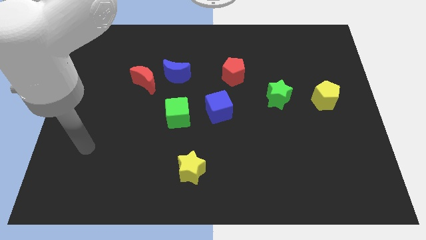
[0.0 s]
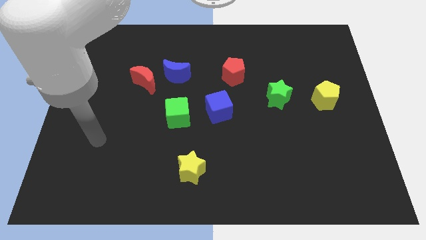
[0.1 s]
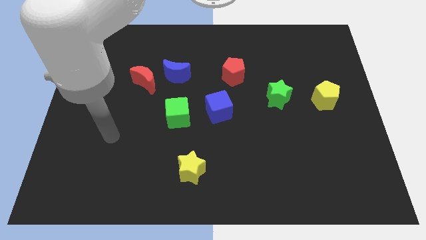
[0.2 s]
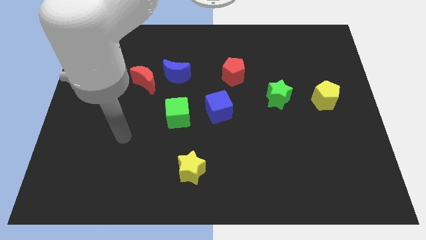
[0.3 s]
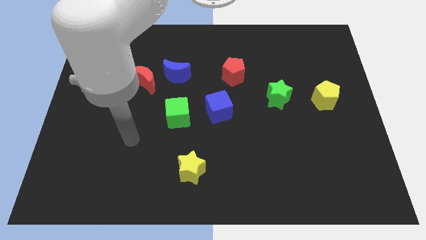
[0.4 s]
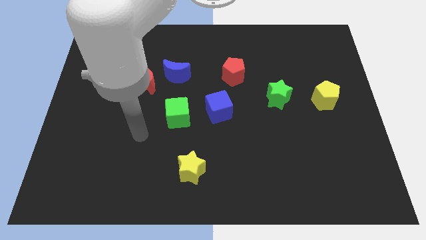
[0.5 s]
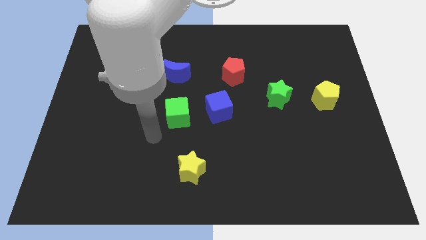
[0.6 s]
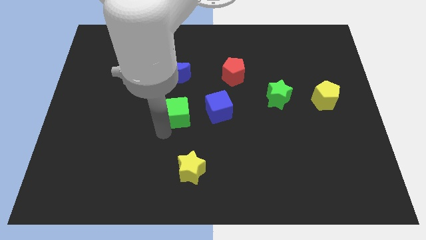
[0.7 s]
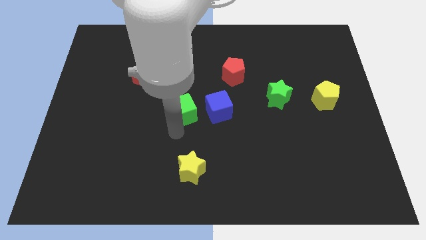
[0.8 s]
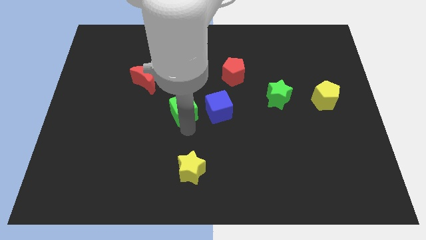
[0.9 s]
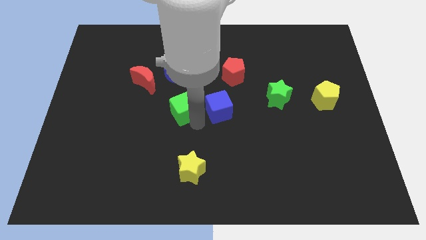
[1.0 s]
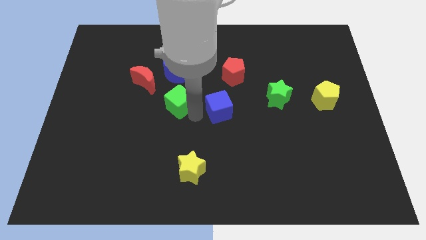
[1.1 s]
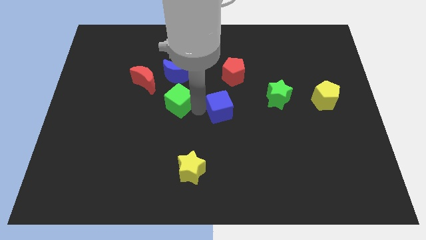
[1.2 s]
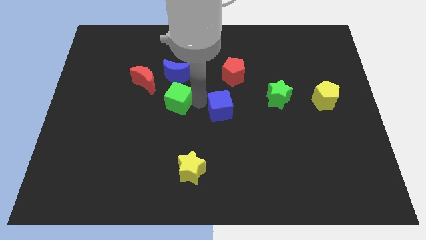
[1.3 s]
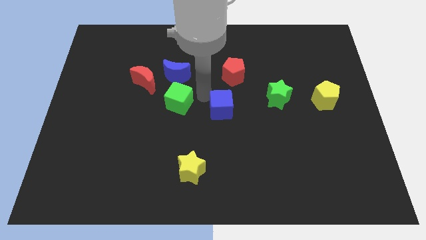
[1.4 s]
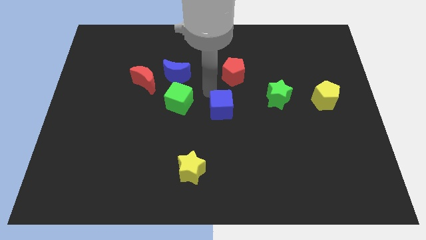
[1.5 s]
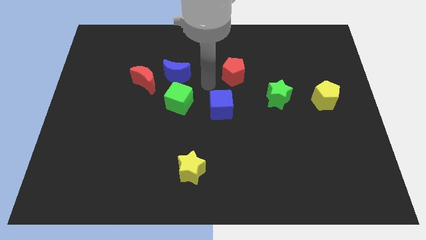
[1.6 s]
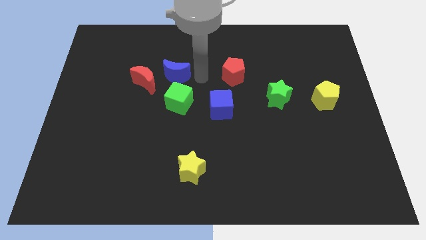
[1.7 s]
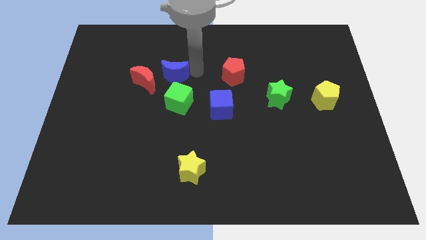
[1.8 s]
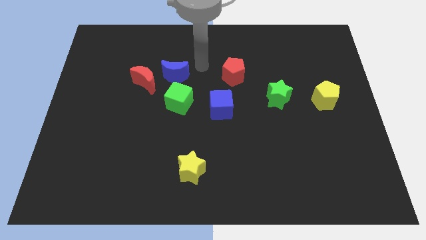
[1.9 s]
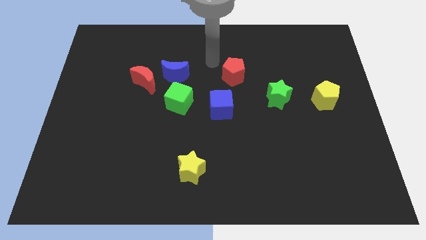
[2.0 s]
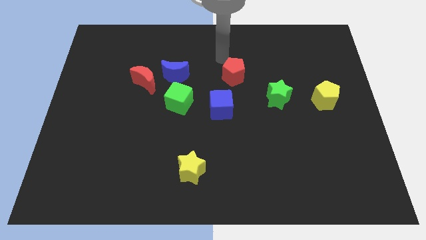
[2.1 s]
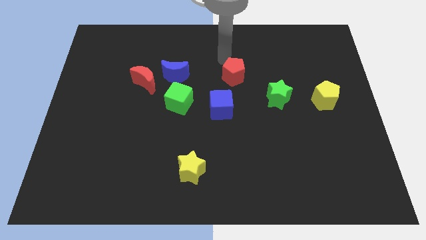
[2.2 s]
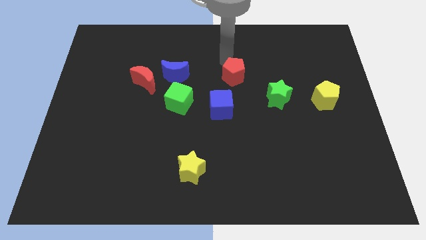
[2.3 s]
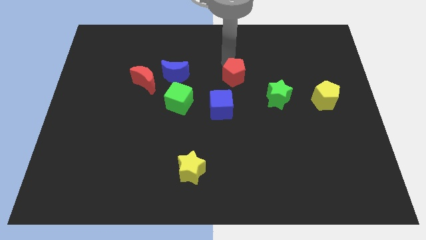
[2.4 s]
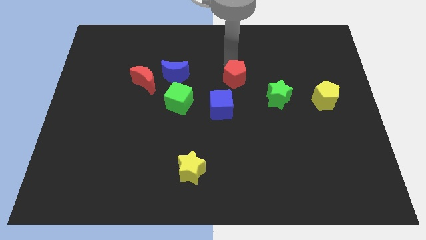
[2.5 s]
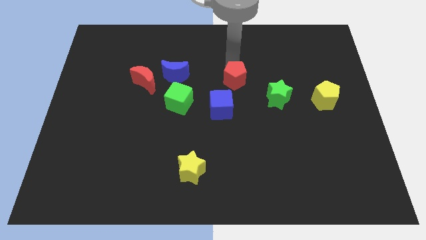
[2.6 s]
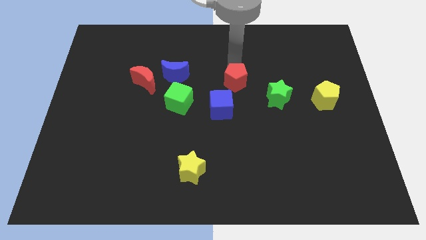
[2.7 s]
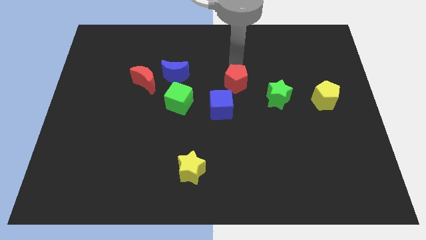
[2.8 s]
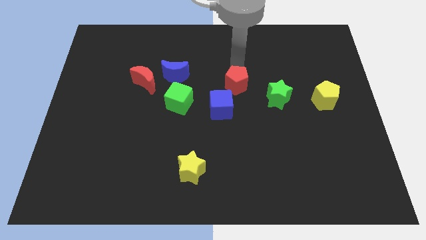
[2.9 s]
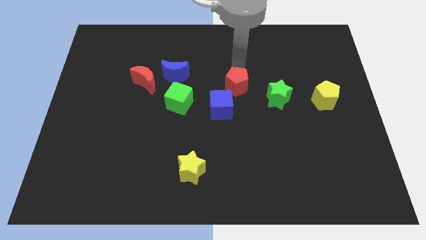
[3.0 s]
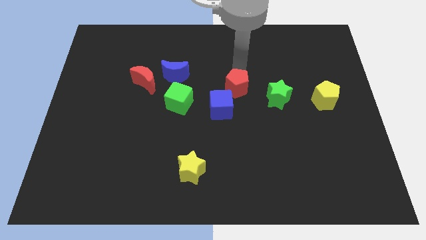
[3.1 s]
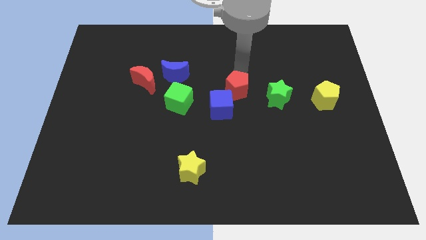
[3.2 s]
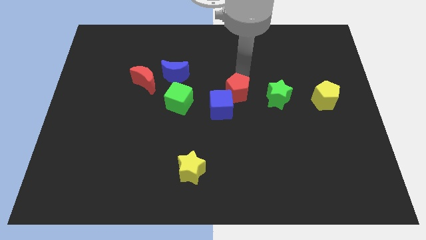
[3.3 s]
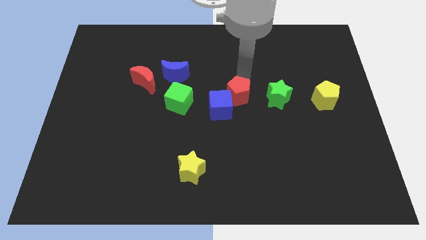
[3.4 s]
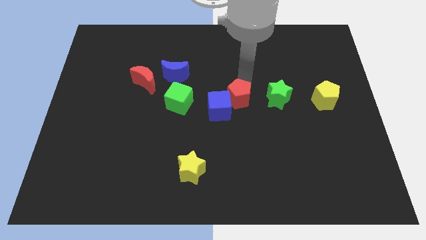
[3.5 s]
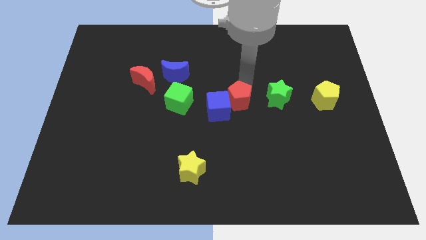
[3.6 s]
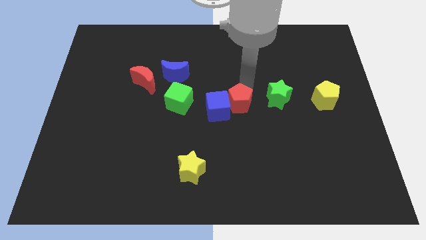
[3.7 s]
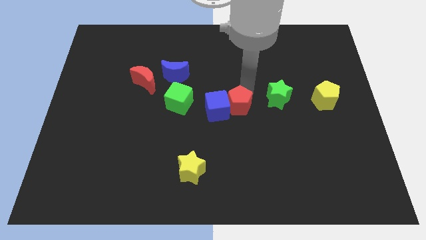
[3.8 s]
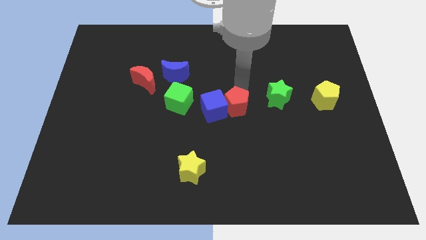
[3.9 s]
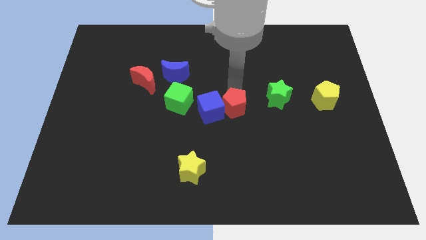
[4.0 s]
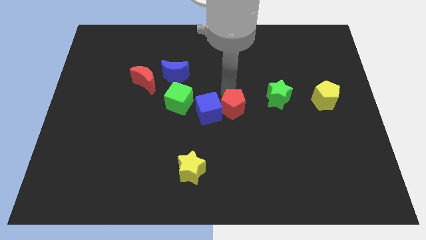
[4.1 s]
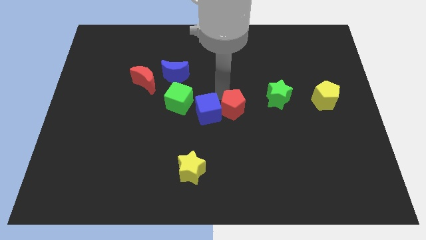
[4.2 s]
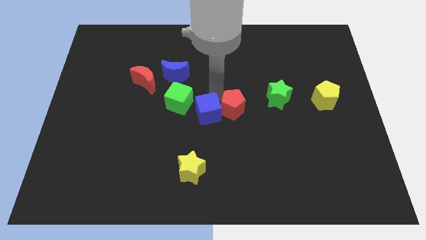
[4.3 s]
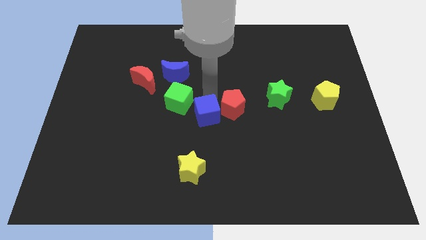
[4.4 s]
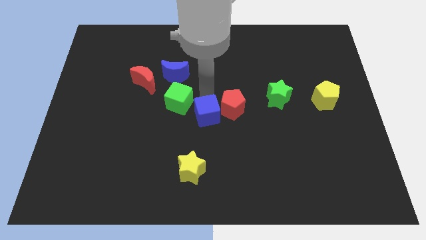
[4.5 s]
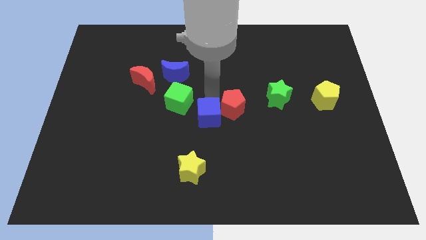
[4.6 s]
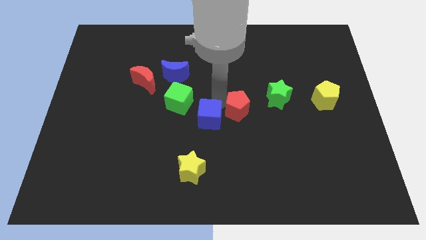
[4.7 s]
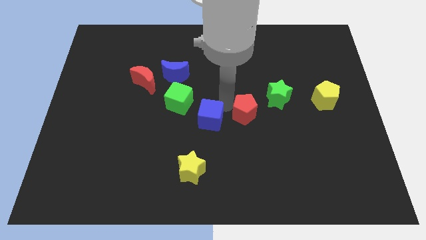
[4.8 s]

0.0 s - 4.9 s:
push the red pentagon diagonally down and to the left of the green star

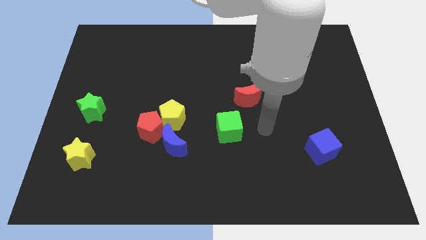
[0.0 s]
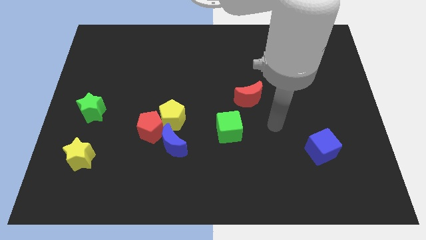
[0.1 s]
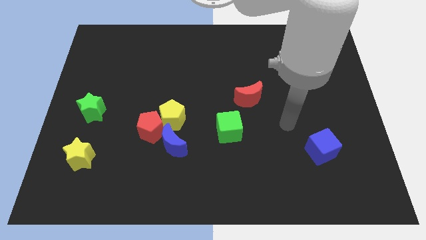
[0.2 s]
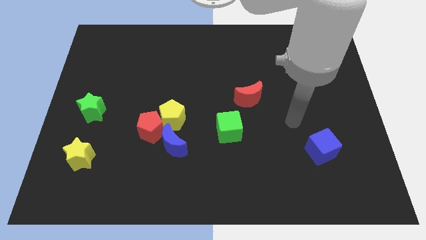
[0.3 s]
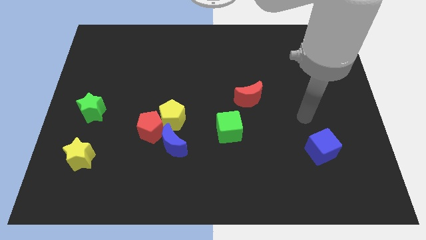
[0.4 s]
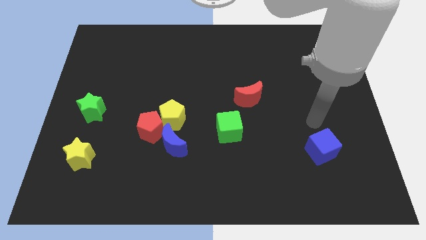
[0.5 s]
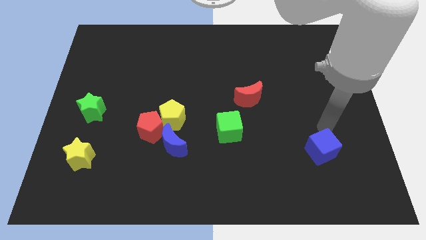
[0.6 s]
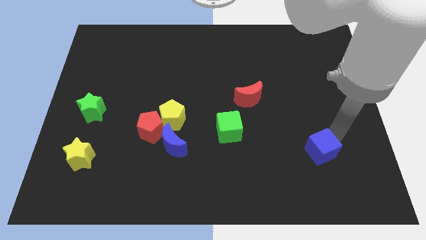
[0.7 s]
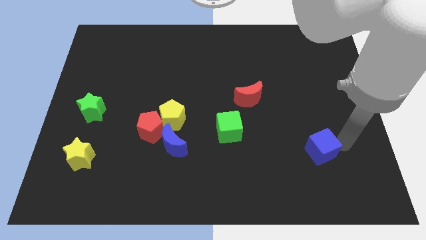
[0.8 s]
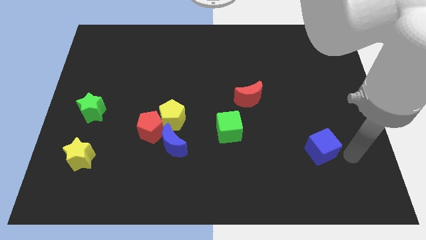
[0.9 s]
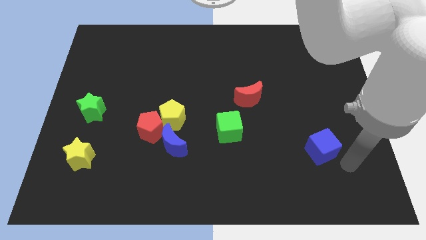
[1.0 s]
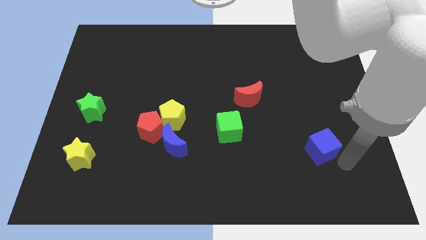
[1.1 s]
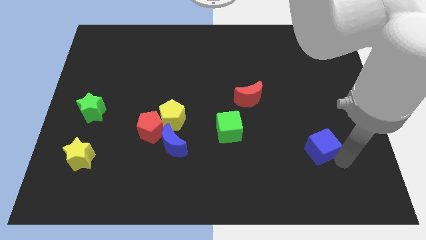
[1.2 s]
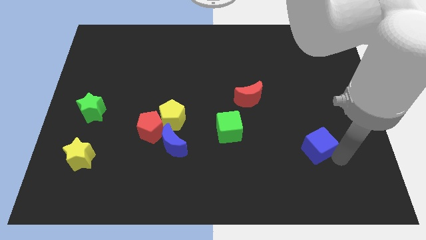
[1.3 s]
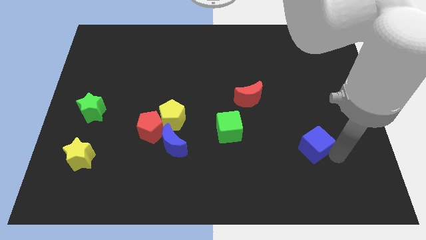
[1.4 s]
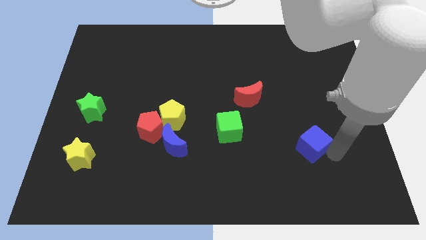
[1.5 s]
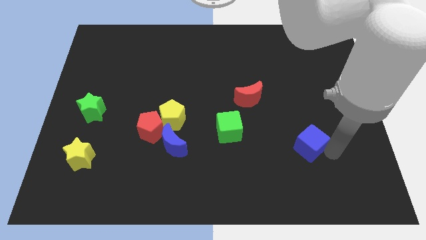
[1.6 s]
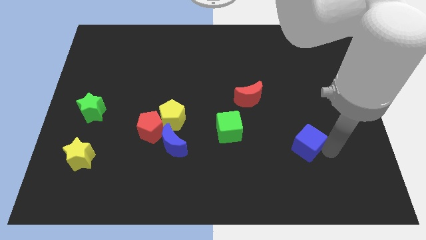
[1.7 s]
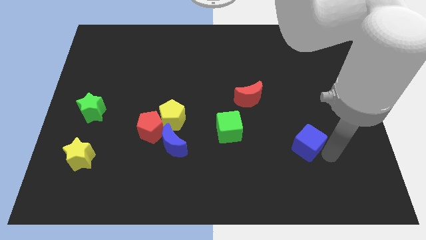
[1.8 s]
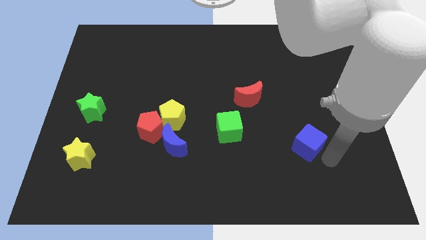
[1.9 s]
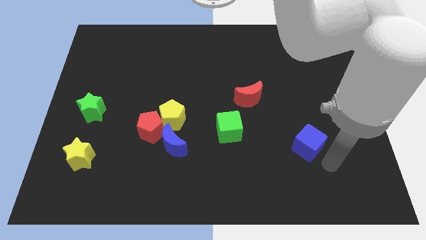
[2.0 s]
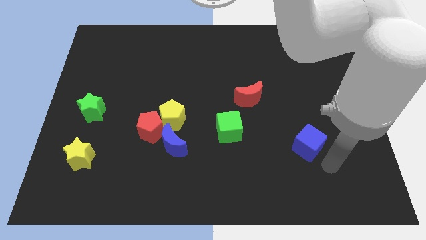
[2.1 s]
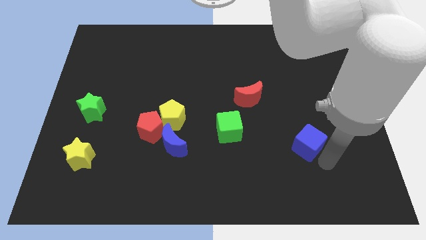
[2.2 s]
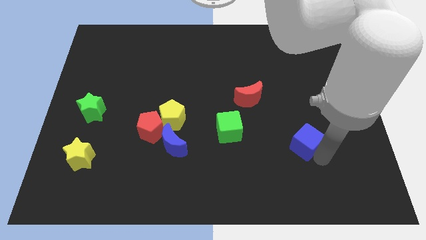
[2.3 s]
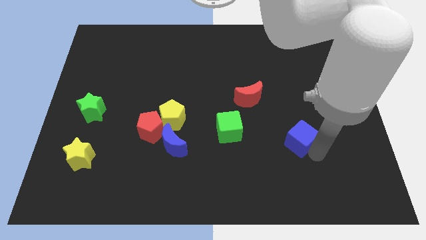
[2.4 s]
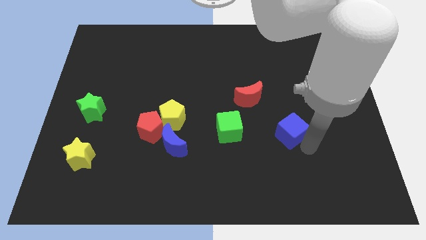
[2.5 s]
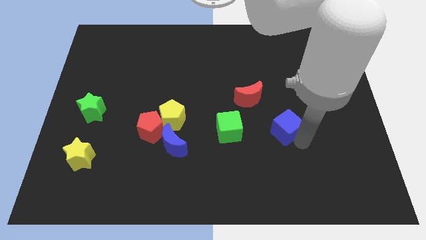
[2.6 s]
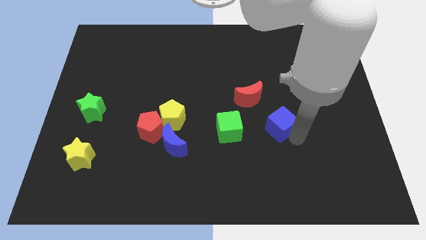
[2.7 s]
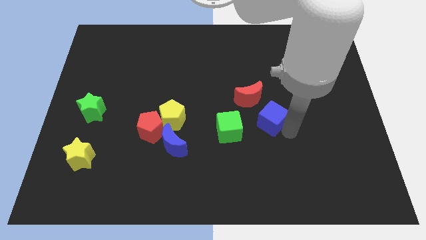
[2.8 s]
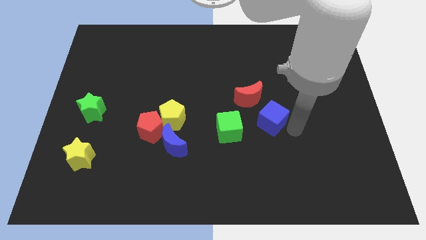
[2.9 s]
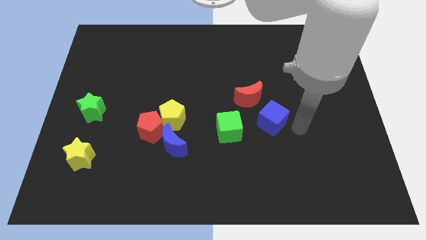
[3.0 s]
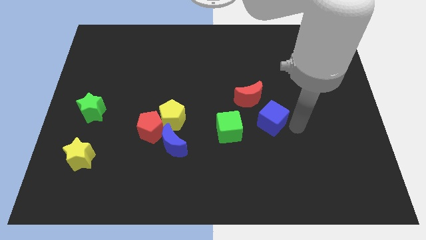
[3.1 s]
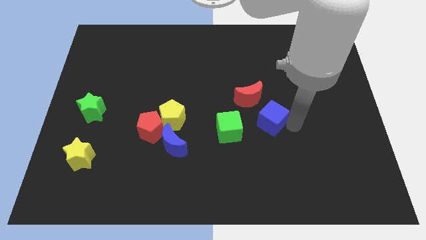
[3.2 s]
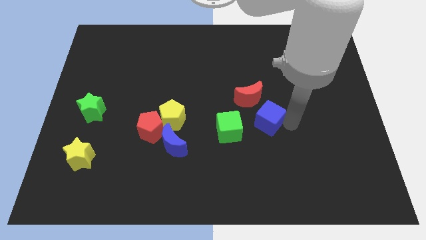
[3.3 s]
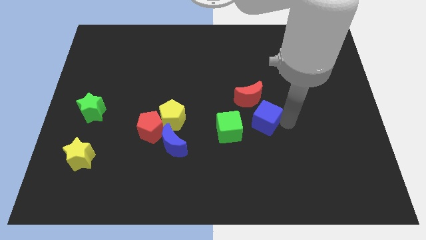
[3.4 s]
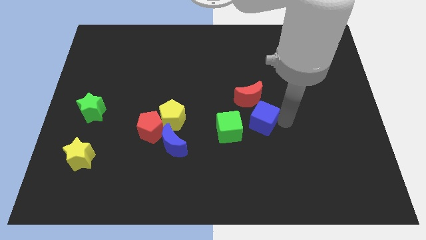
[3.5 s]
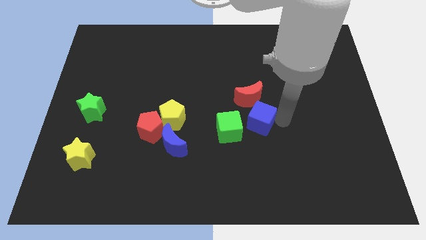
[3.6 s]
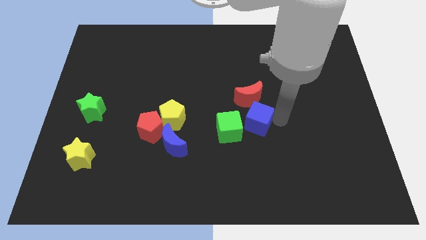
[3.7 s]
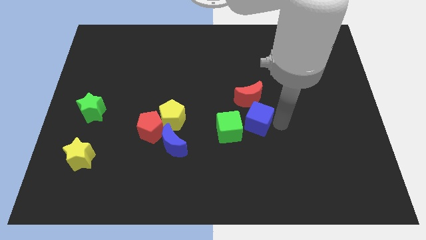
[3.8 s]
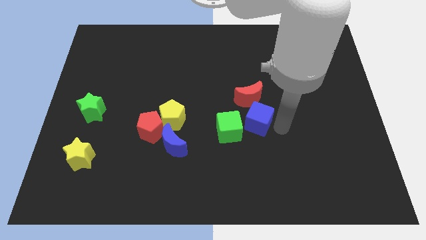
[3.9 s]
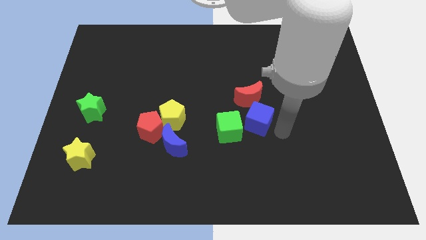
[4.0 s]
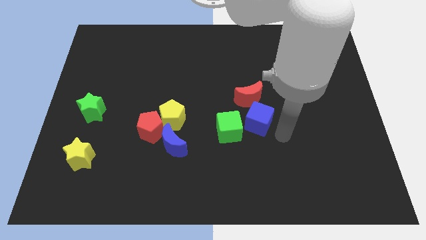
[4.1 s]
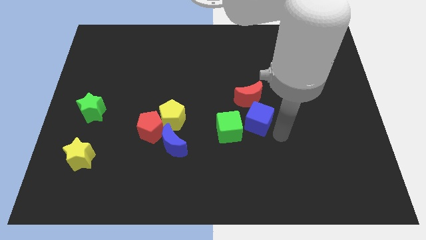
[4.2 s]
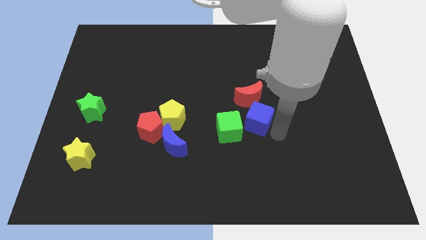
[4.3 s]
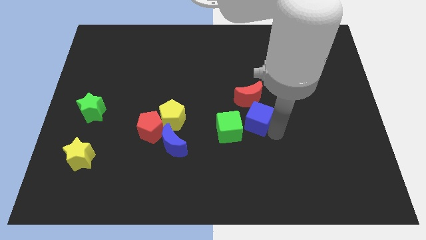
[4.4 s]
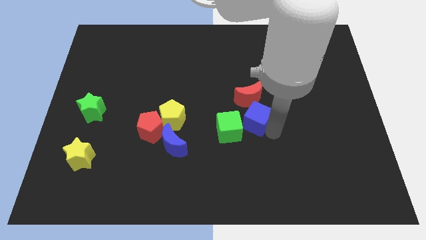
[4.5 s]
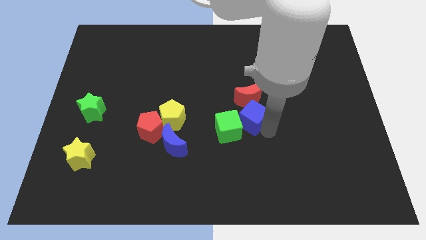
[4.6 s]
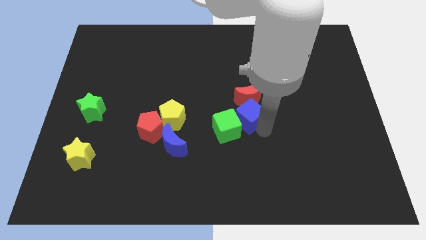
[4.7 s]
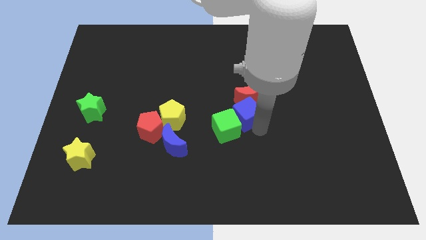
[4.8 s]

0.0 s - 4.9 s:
push the blue cube above the green cube
